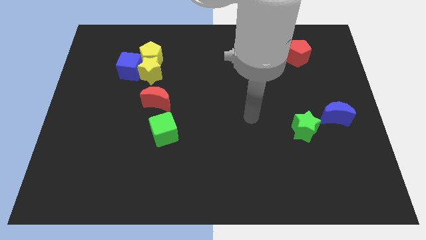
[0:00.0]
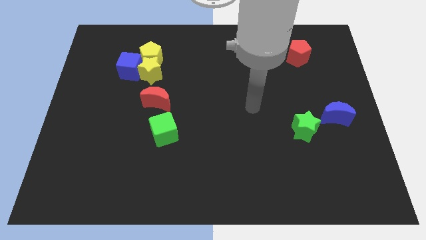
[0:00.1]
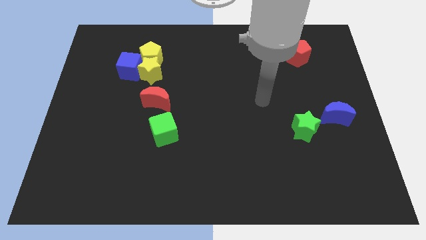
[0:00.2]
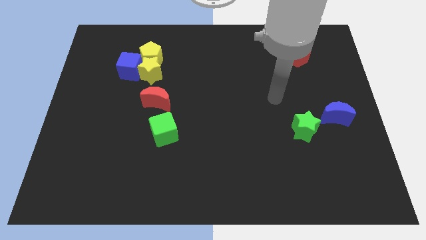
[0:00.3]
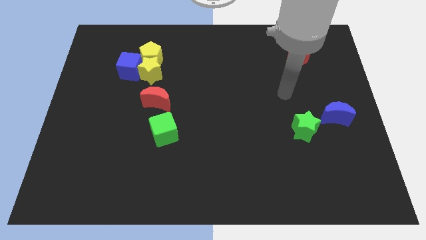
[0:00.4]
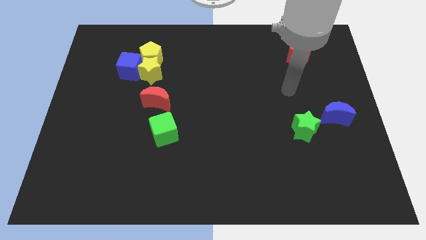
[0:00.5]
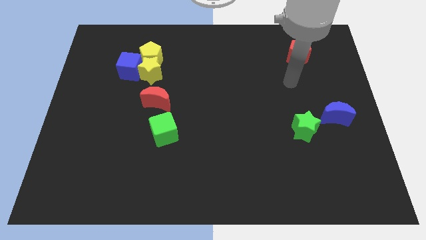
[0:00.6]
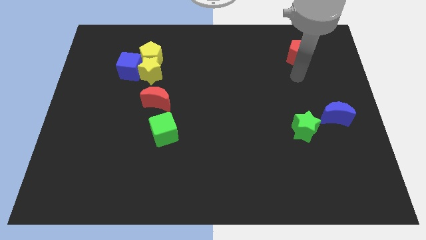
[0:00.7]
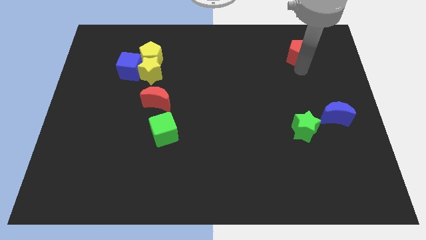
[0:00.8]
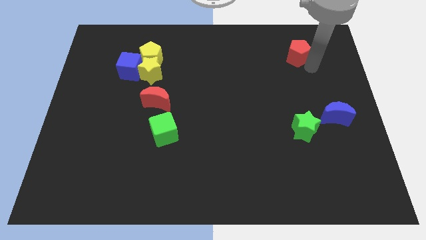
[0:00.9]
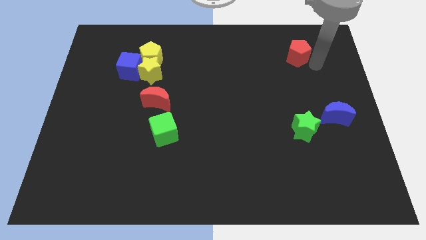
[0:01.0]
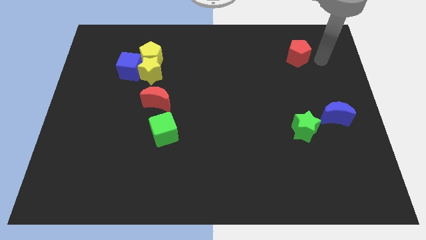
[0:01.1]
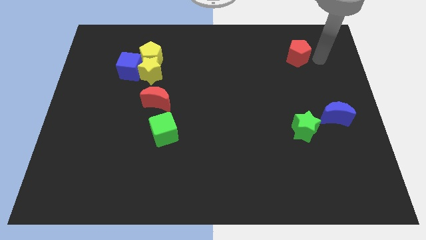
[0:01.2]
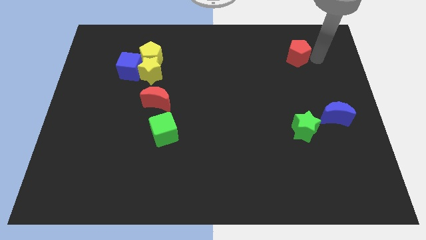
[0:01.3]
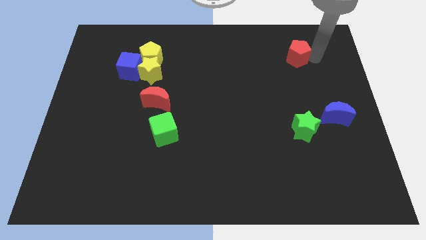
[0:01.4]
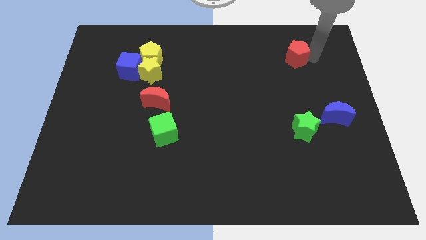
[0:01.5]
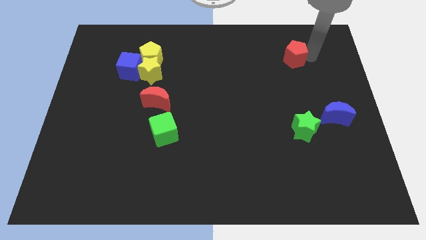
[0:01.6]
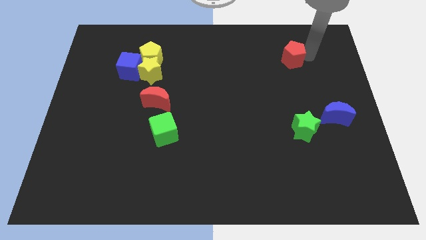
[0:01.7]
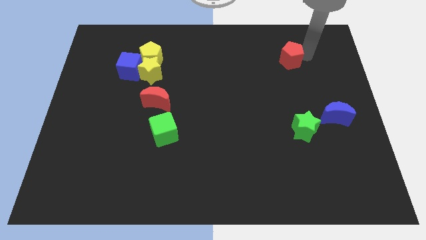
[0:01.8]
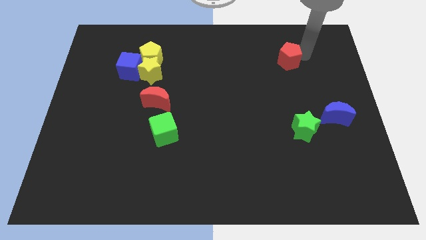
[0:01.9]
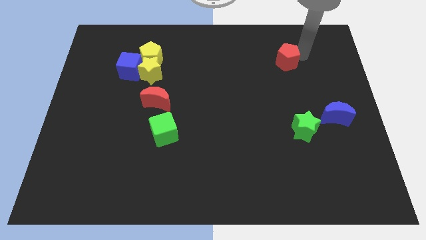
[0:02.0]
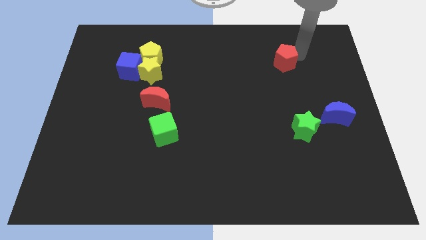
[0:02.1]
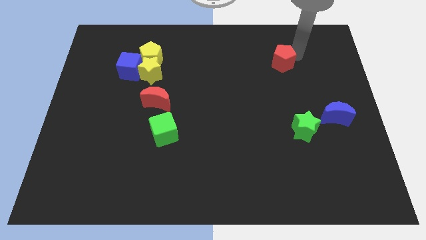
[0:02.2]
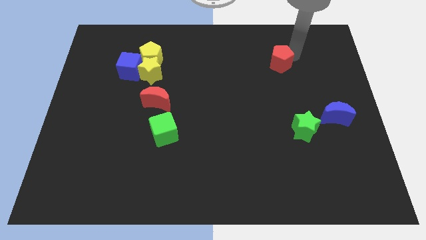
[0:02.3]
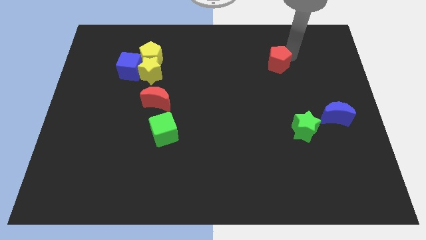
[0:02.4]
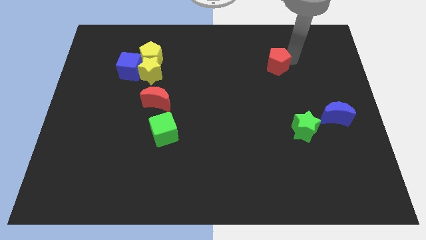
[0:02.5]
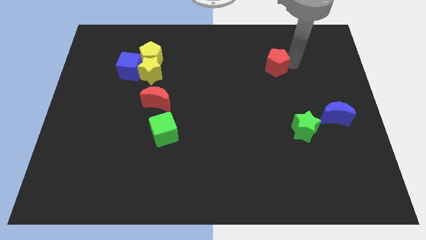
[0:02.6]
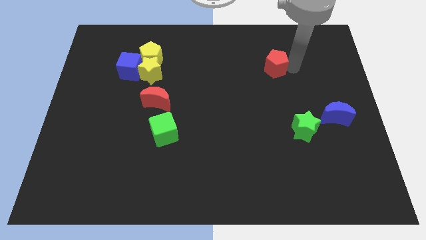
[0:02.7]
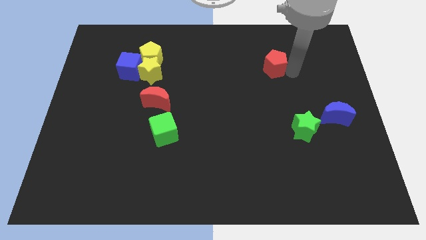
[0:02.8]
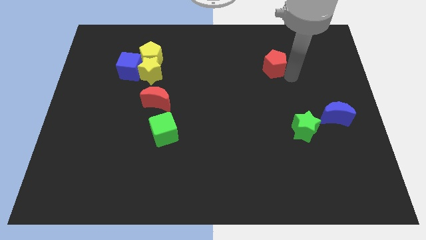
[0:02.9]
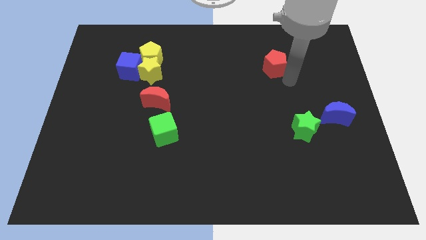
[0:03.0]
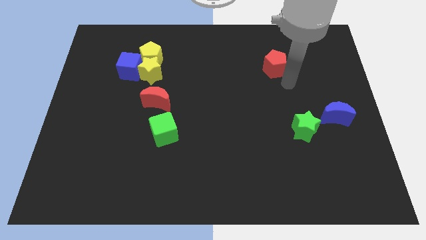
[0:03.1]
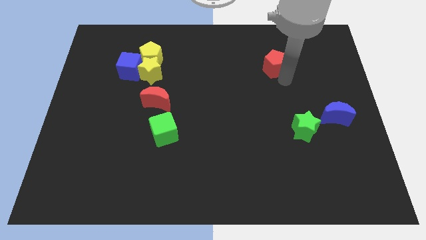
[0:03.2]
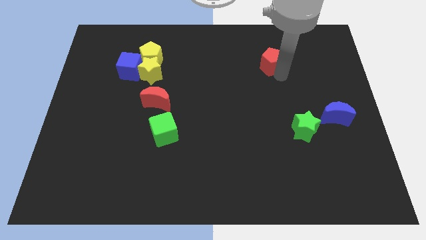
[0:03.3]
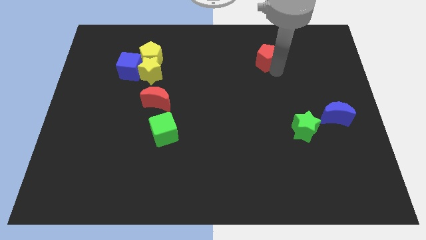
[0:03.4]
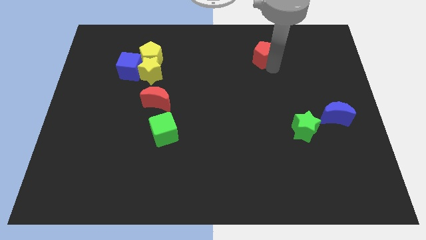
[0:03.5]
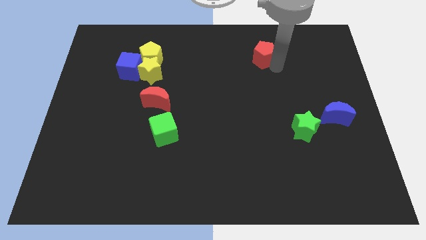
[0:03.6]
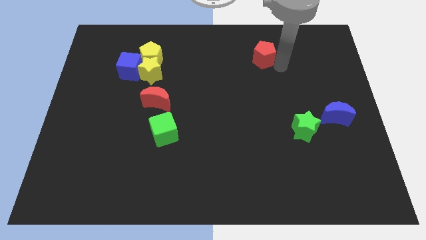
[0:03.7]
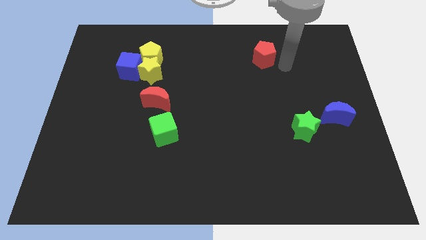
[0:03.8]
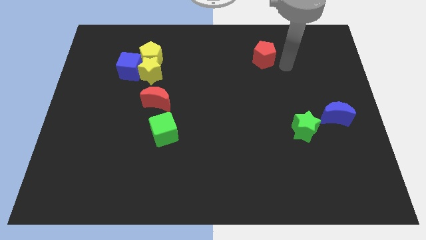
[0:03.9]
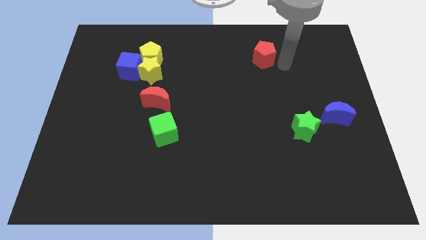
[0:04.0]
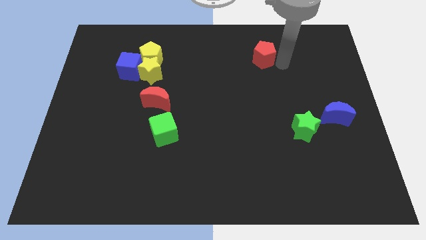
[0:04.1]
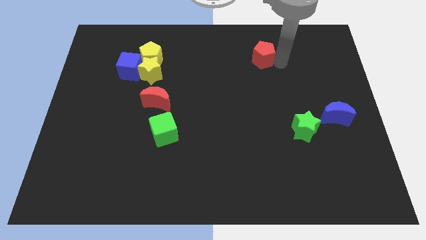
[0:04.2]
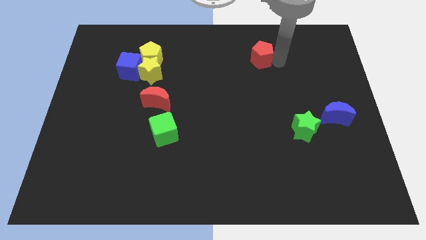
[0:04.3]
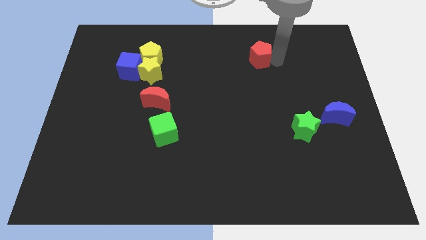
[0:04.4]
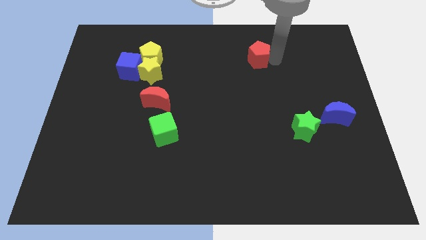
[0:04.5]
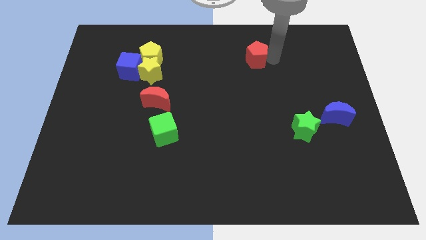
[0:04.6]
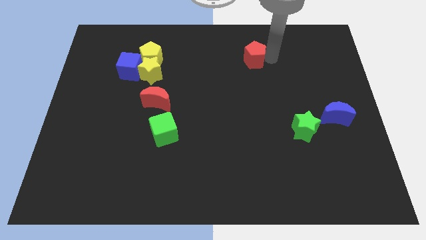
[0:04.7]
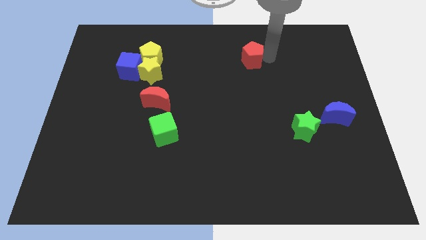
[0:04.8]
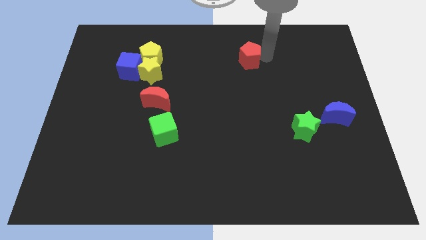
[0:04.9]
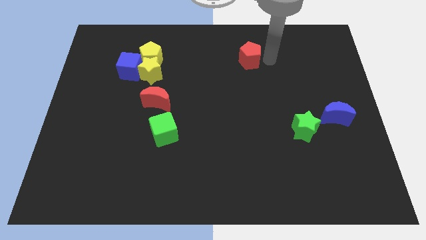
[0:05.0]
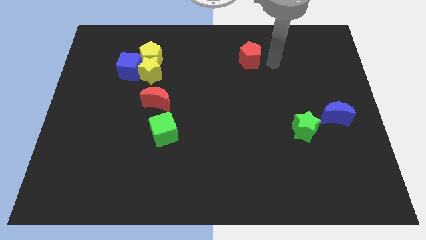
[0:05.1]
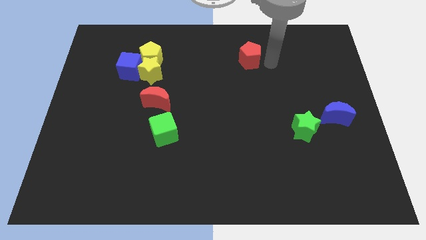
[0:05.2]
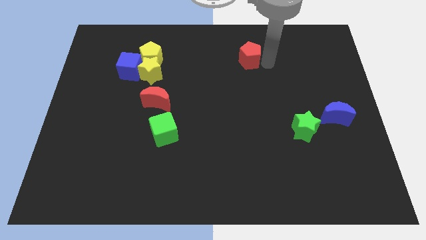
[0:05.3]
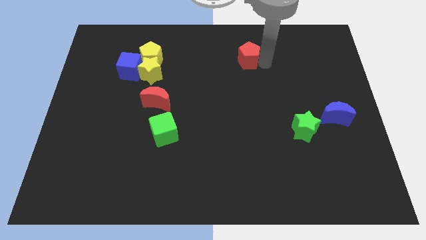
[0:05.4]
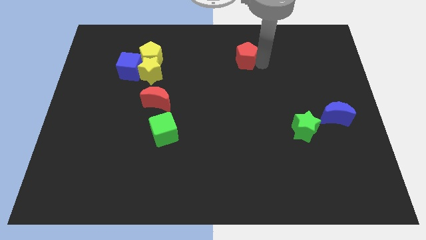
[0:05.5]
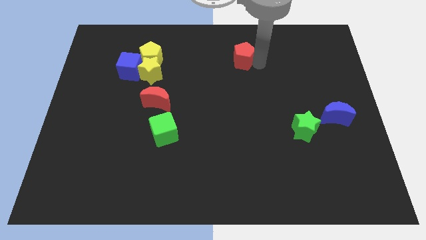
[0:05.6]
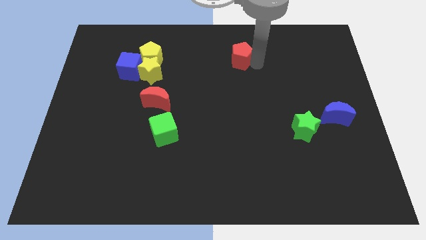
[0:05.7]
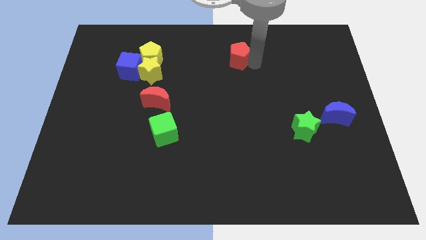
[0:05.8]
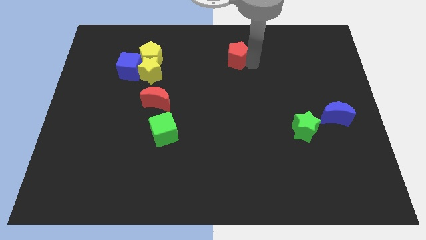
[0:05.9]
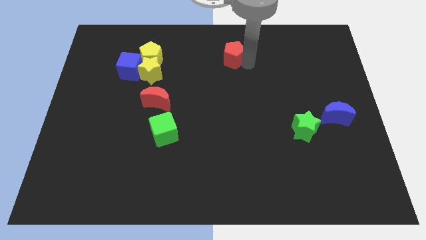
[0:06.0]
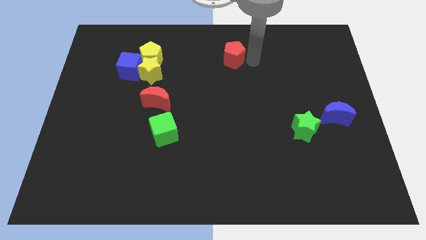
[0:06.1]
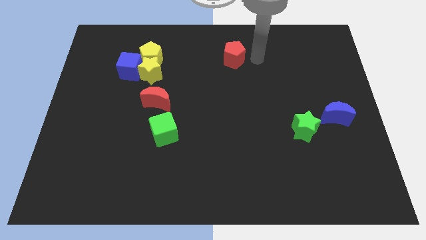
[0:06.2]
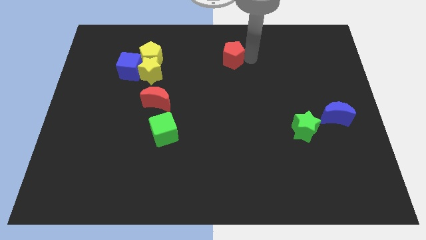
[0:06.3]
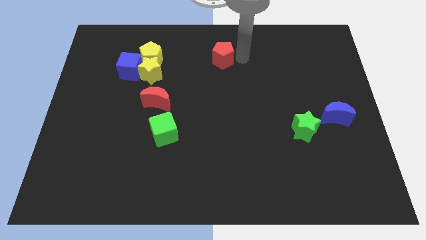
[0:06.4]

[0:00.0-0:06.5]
move the red pentagon to the left

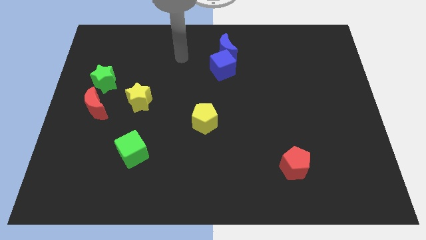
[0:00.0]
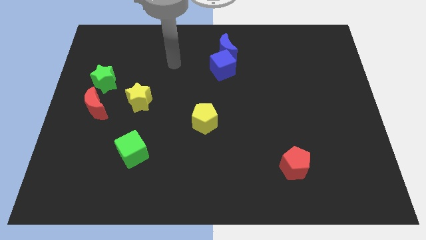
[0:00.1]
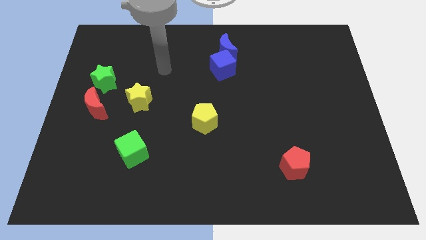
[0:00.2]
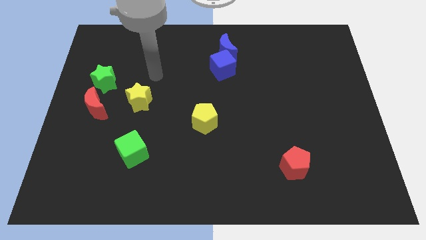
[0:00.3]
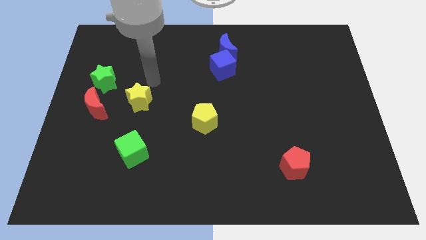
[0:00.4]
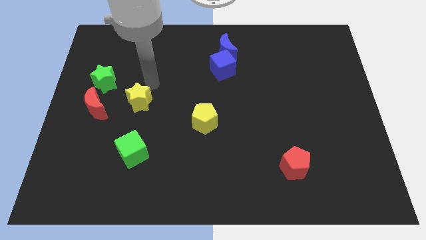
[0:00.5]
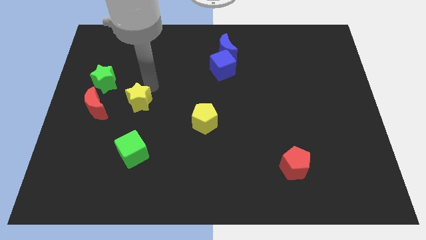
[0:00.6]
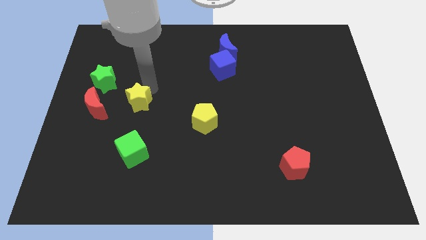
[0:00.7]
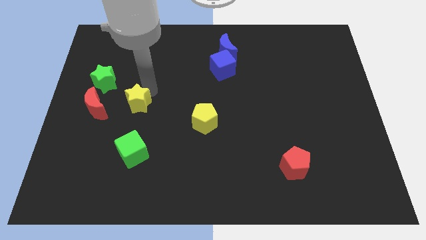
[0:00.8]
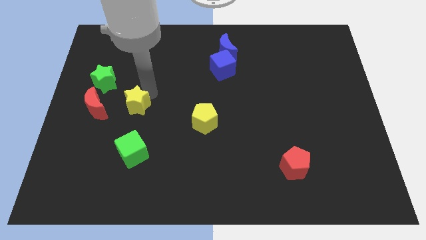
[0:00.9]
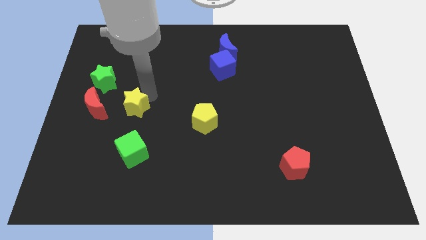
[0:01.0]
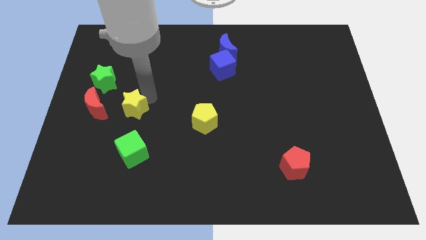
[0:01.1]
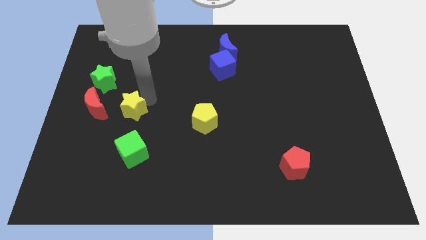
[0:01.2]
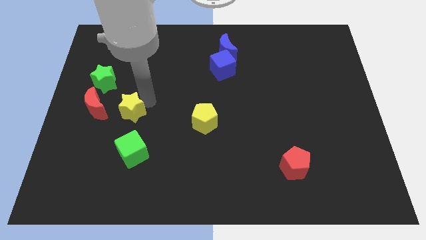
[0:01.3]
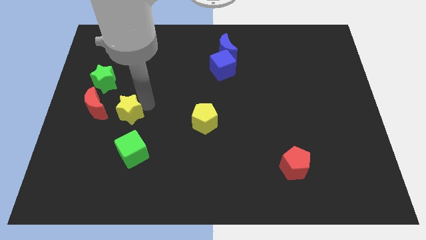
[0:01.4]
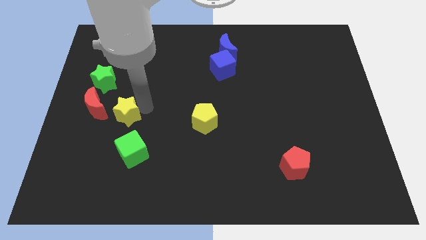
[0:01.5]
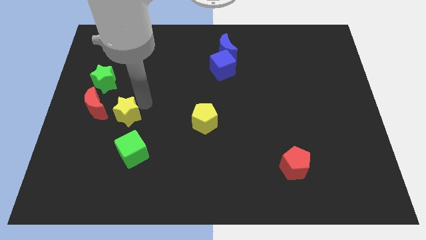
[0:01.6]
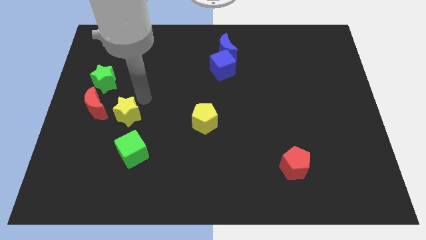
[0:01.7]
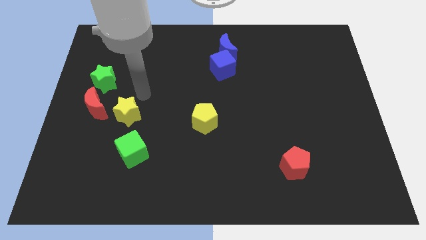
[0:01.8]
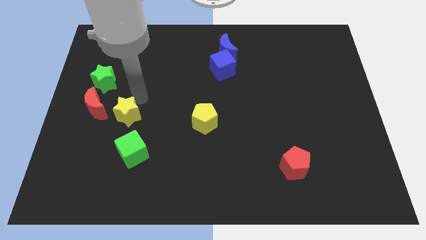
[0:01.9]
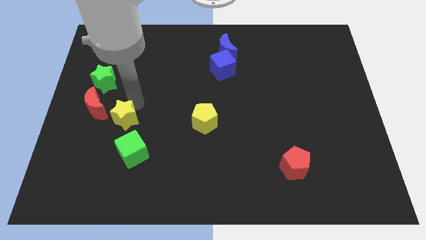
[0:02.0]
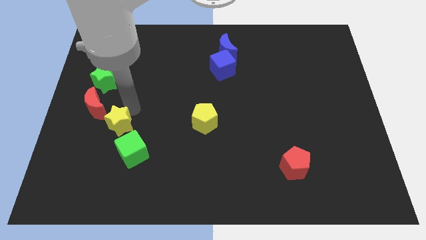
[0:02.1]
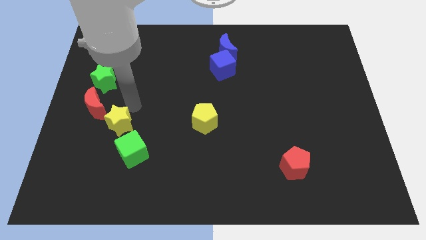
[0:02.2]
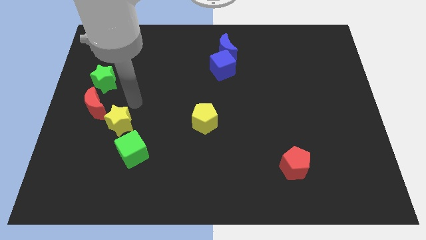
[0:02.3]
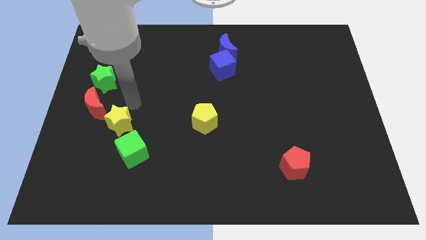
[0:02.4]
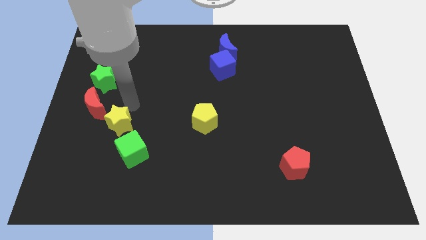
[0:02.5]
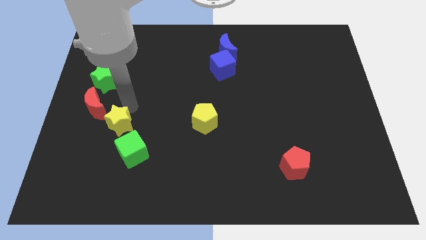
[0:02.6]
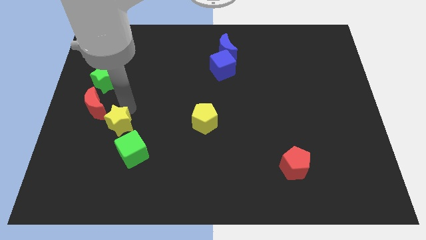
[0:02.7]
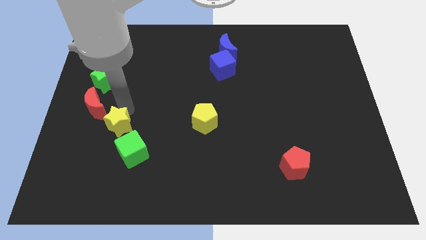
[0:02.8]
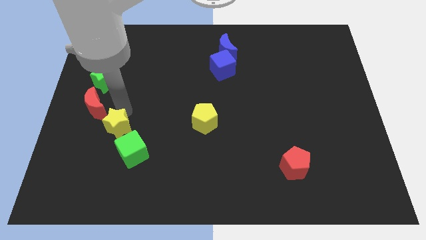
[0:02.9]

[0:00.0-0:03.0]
slightly push the yellow star down
